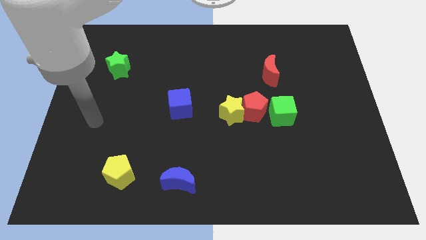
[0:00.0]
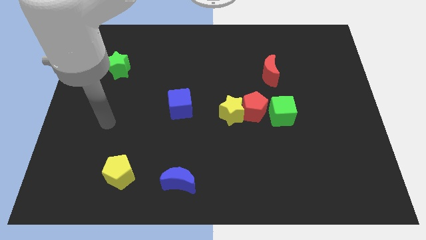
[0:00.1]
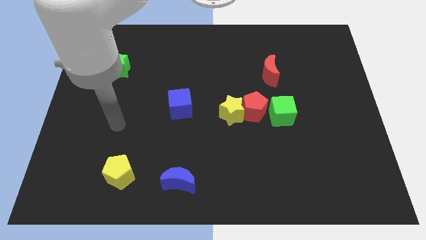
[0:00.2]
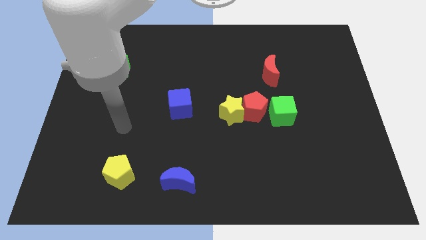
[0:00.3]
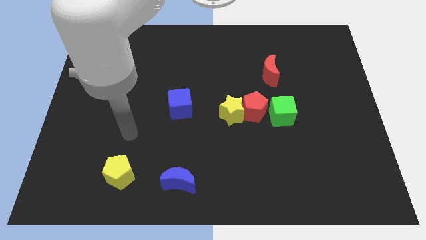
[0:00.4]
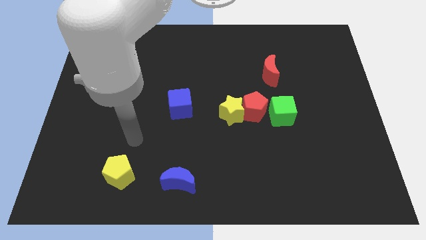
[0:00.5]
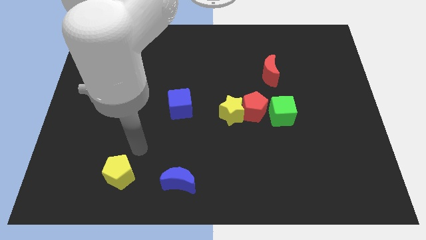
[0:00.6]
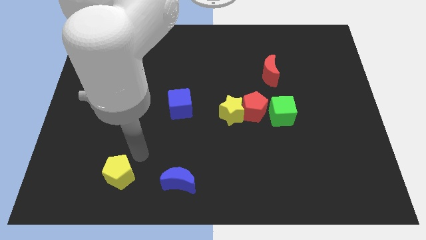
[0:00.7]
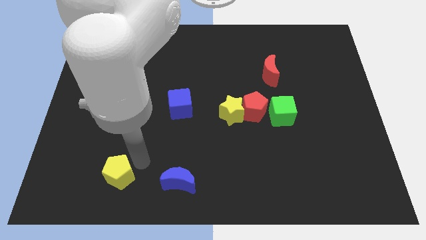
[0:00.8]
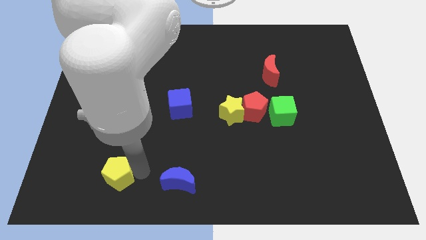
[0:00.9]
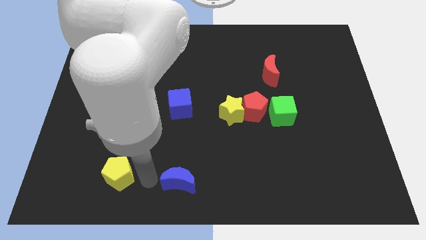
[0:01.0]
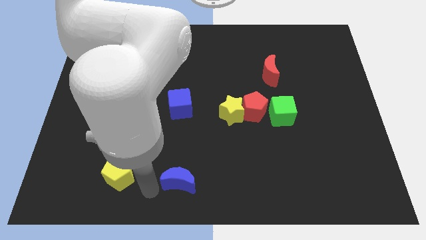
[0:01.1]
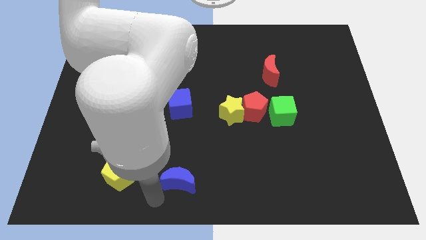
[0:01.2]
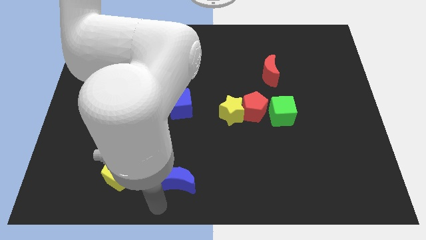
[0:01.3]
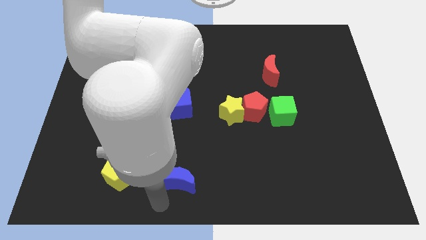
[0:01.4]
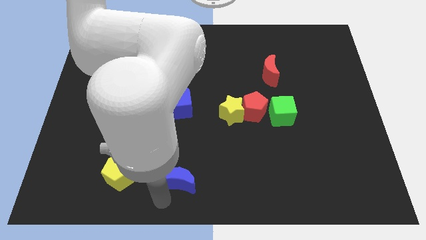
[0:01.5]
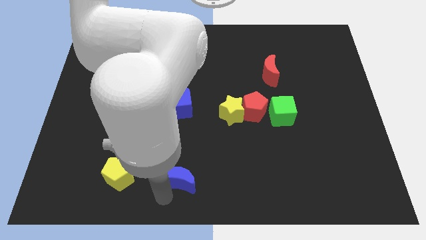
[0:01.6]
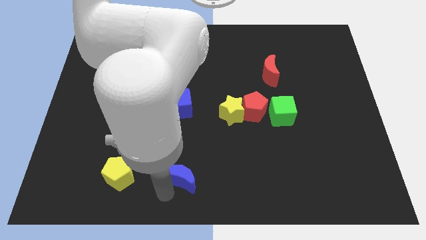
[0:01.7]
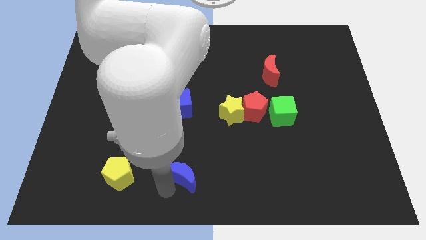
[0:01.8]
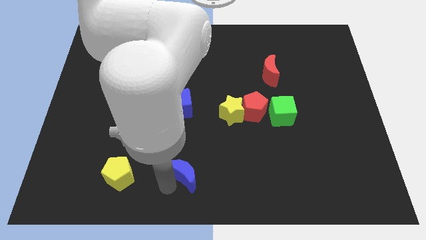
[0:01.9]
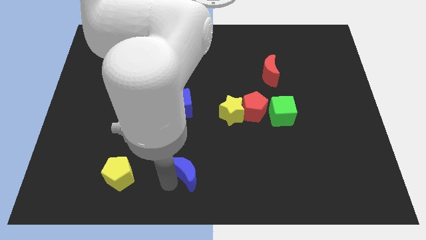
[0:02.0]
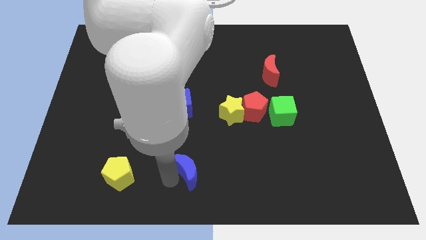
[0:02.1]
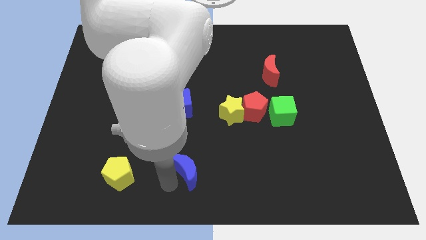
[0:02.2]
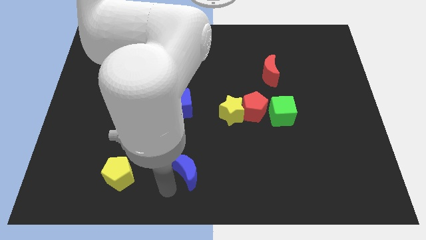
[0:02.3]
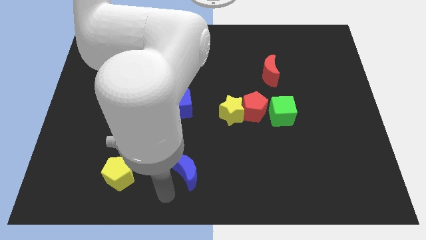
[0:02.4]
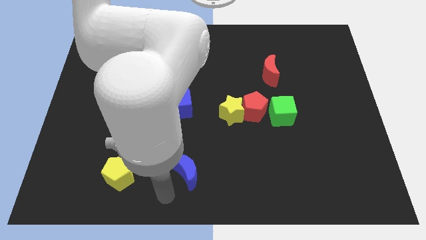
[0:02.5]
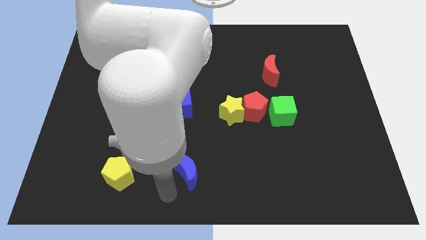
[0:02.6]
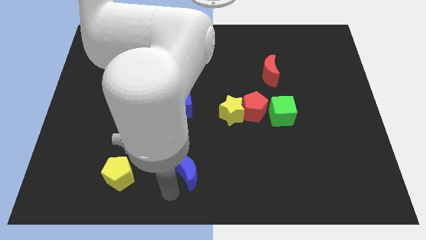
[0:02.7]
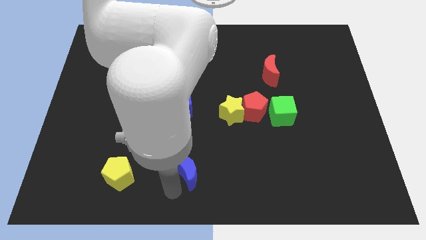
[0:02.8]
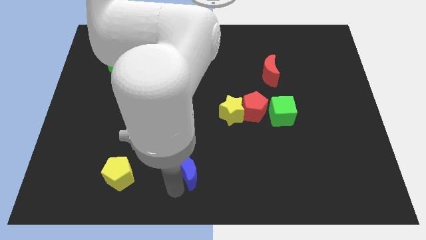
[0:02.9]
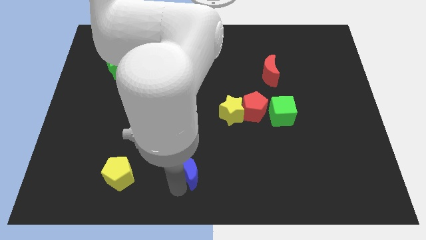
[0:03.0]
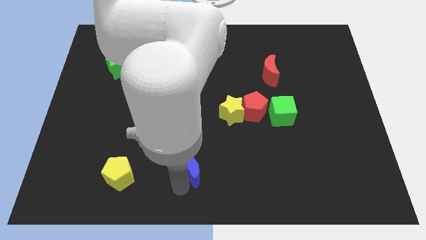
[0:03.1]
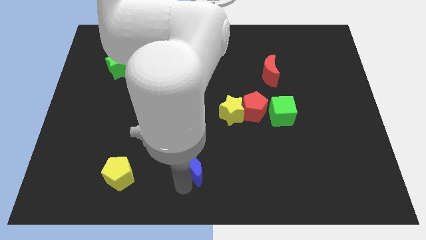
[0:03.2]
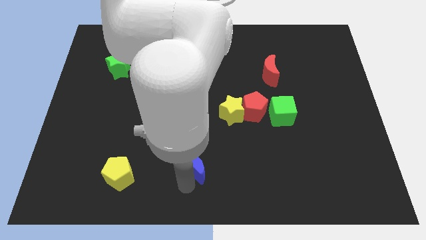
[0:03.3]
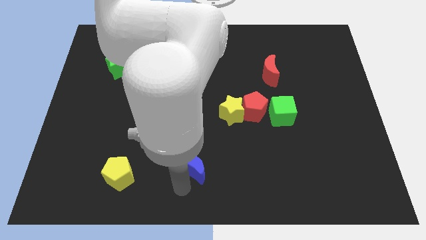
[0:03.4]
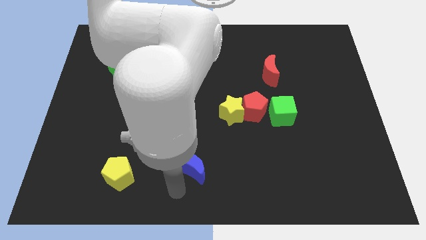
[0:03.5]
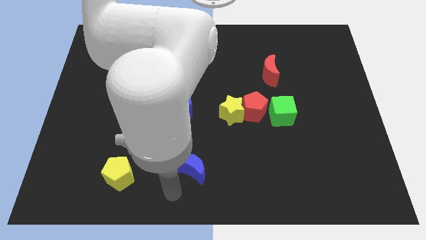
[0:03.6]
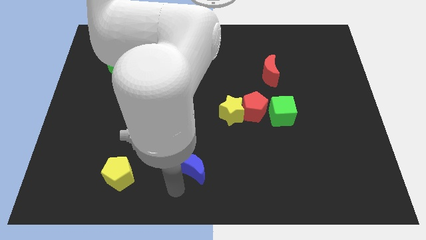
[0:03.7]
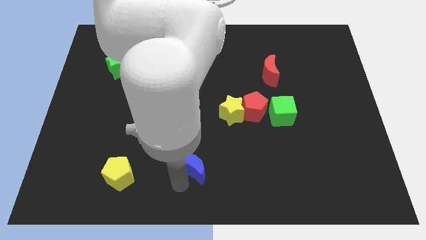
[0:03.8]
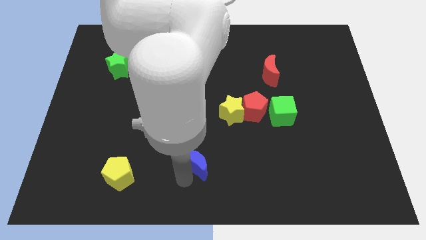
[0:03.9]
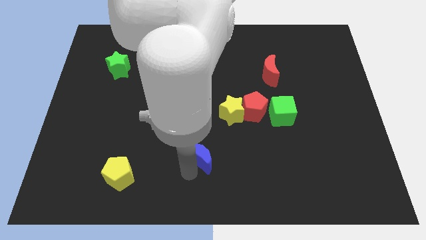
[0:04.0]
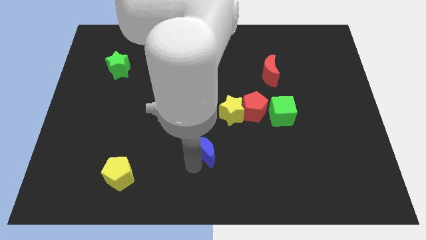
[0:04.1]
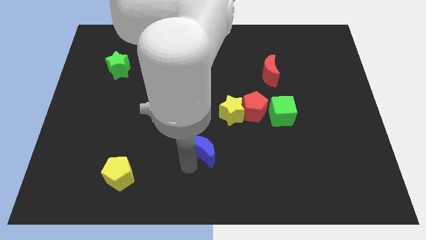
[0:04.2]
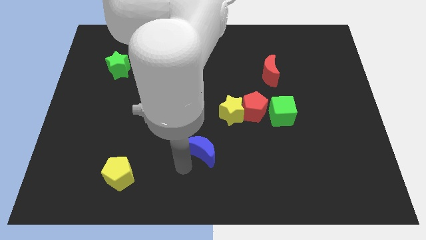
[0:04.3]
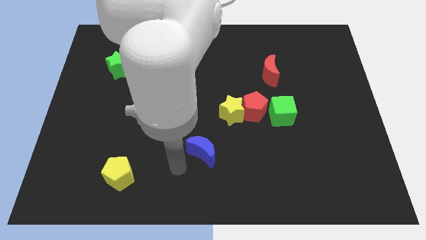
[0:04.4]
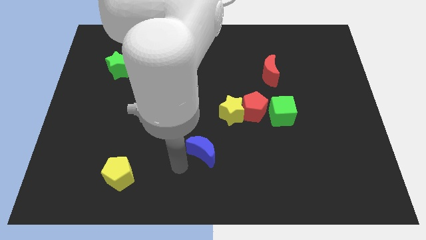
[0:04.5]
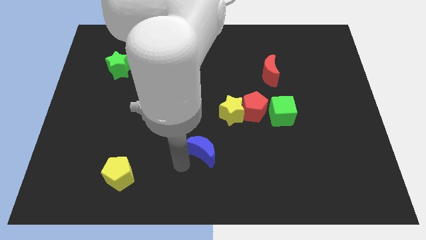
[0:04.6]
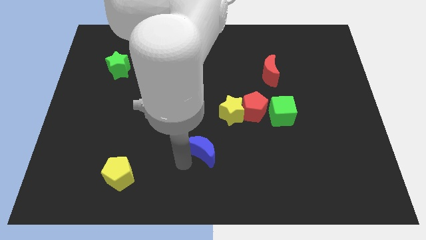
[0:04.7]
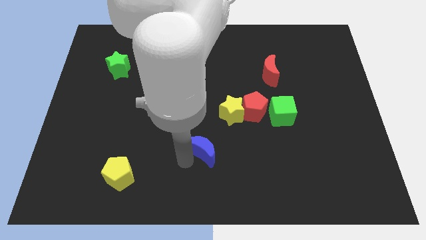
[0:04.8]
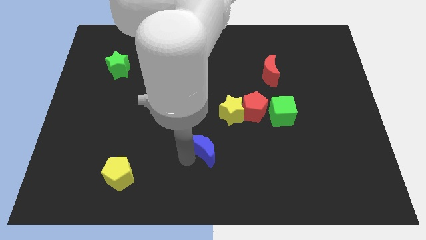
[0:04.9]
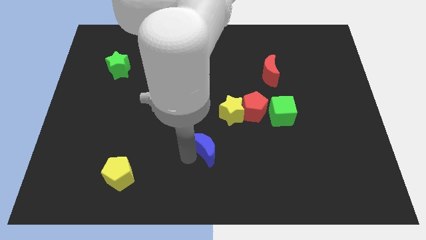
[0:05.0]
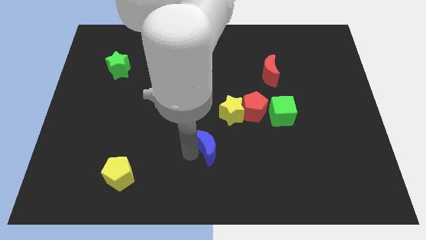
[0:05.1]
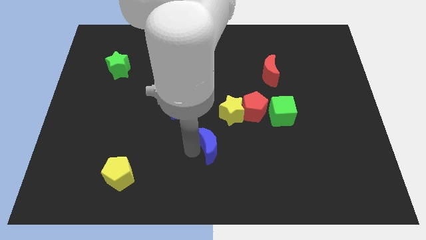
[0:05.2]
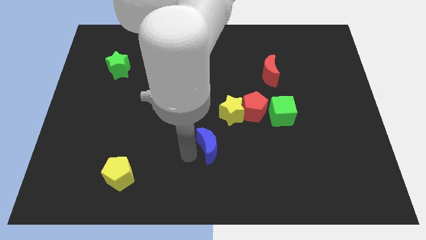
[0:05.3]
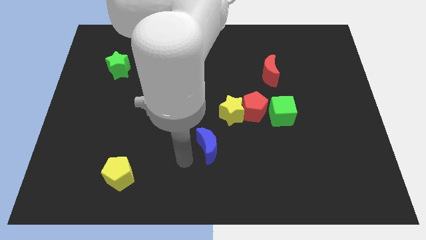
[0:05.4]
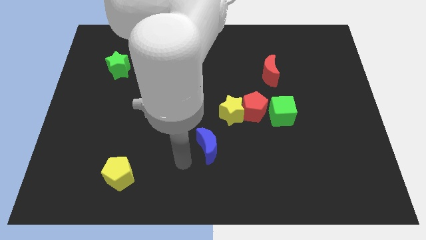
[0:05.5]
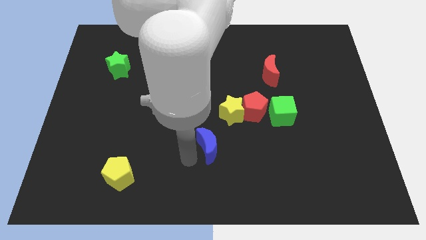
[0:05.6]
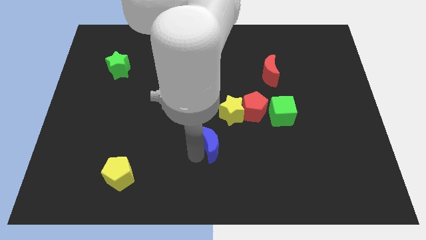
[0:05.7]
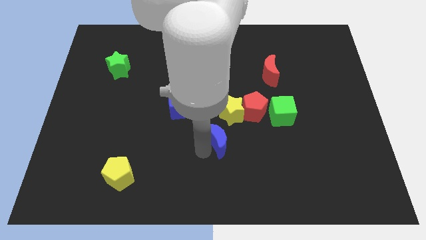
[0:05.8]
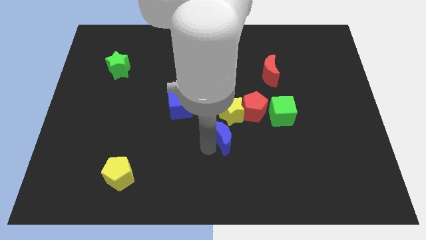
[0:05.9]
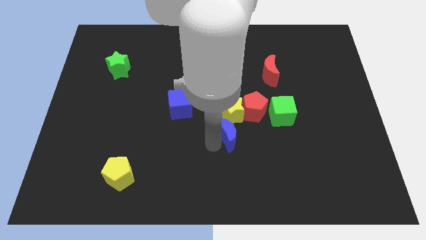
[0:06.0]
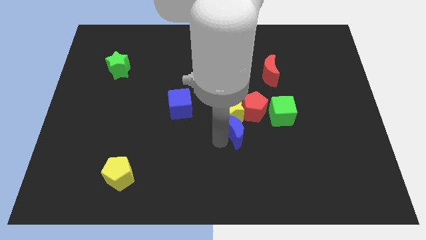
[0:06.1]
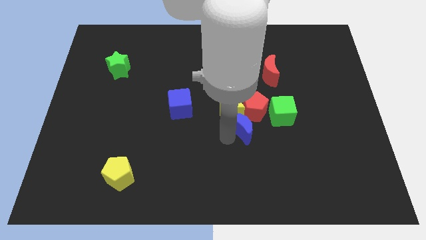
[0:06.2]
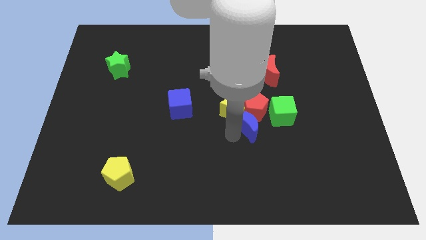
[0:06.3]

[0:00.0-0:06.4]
put the blue moon next to the red pentagon

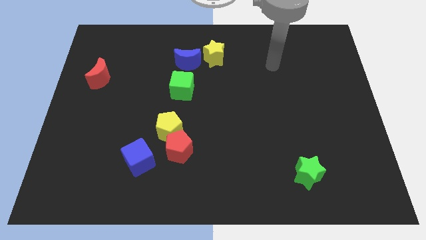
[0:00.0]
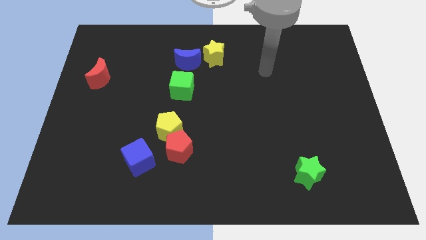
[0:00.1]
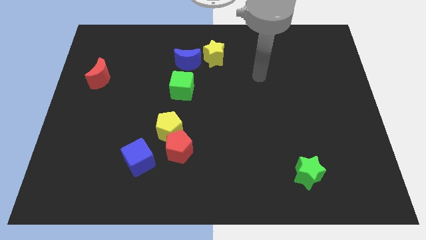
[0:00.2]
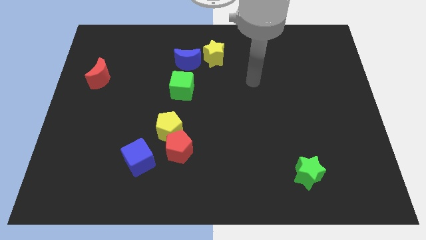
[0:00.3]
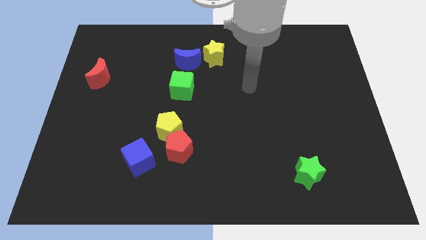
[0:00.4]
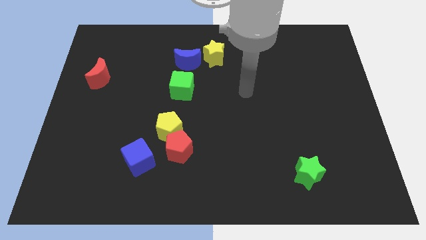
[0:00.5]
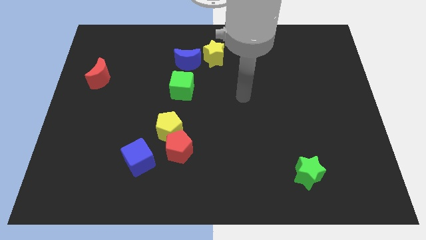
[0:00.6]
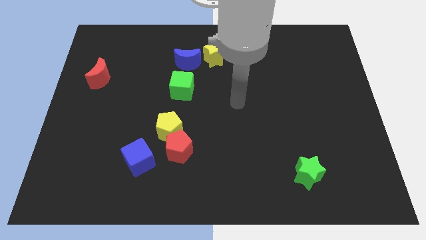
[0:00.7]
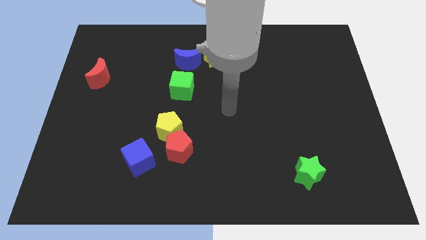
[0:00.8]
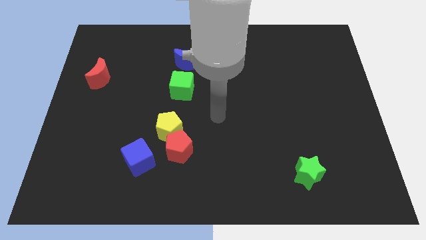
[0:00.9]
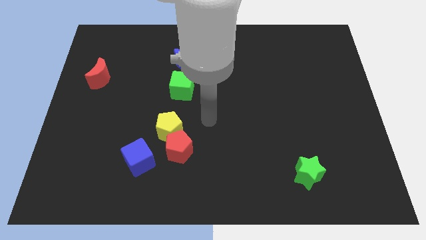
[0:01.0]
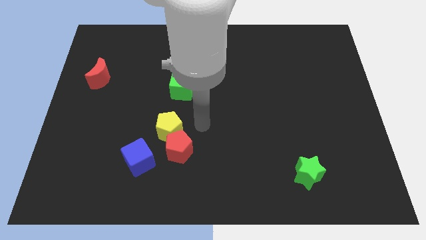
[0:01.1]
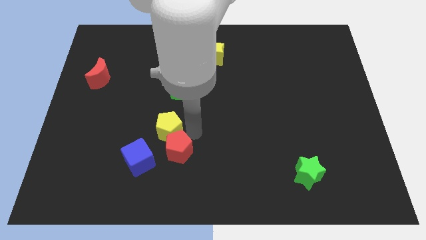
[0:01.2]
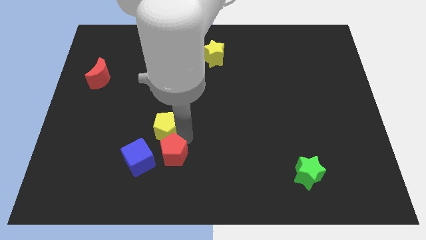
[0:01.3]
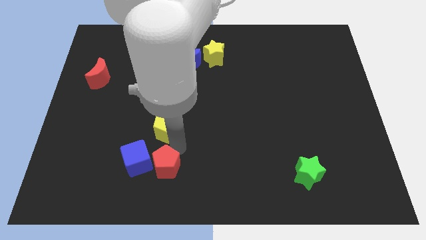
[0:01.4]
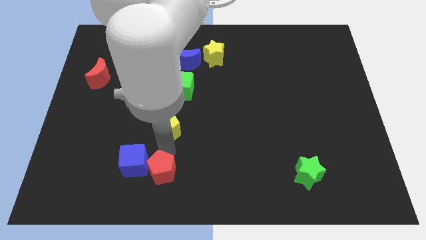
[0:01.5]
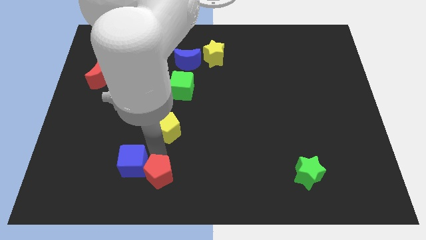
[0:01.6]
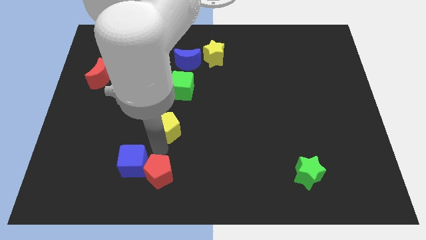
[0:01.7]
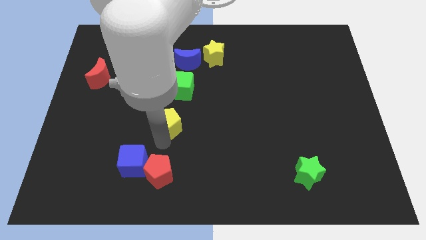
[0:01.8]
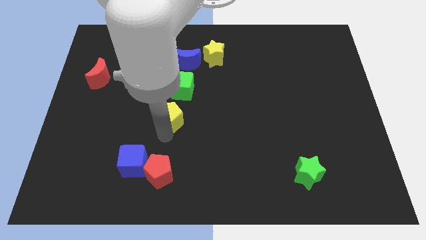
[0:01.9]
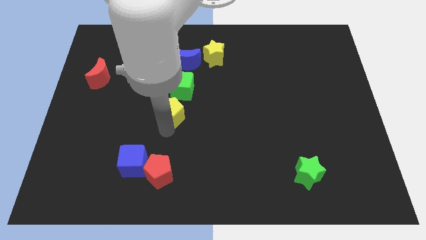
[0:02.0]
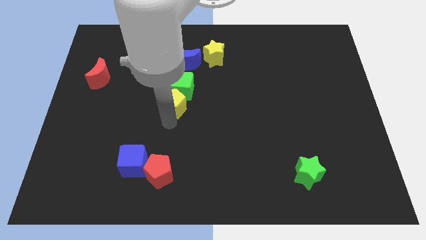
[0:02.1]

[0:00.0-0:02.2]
slide the yellow pentagon close to the green cube
